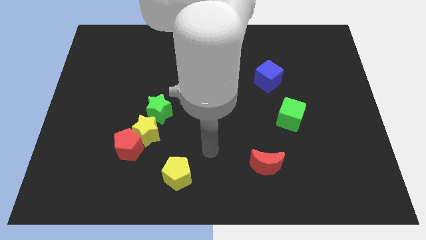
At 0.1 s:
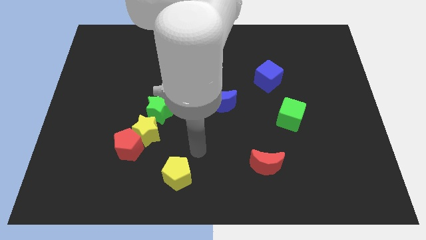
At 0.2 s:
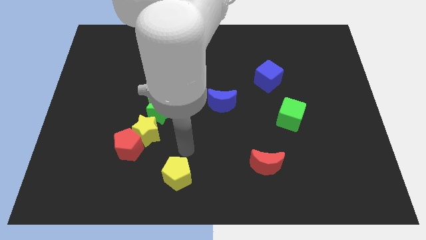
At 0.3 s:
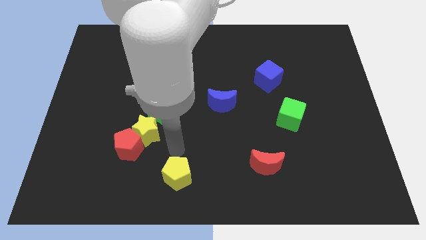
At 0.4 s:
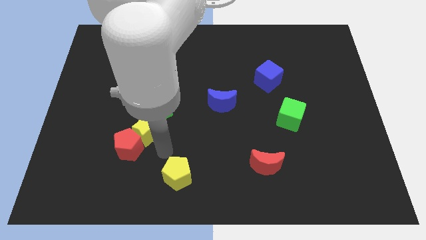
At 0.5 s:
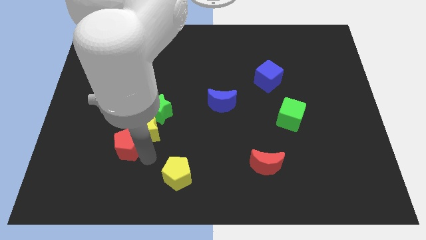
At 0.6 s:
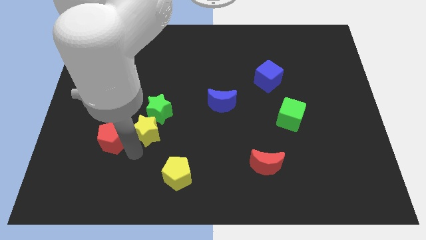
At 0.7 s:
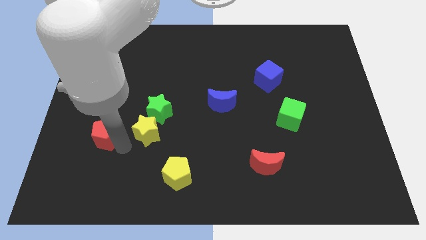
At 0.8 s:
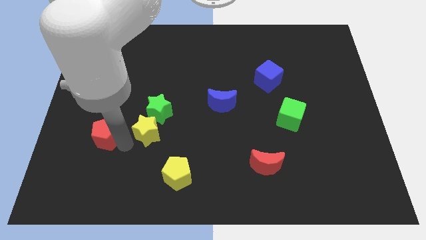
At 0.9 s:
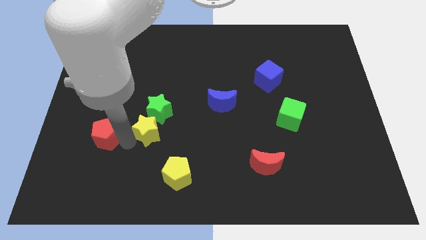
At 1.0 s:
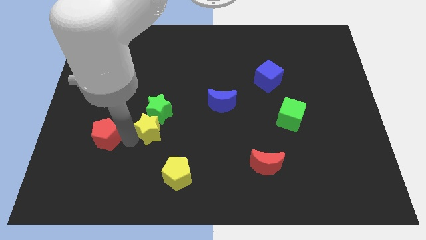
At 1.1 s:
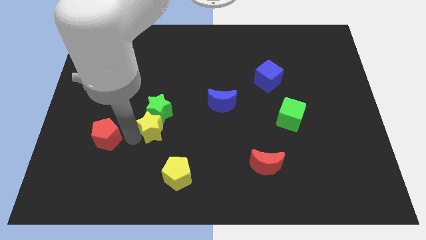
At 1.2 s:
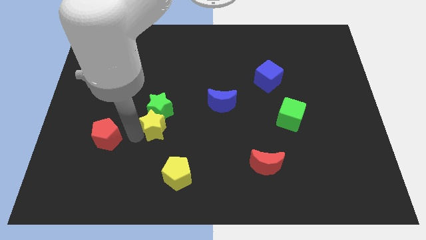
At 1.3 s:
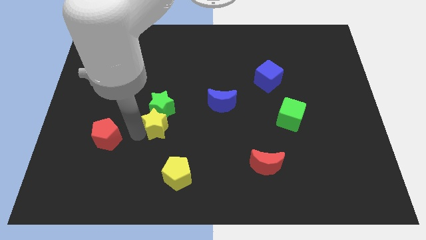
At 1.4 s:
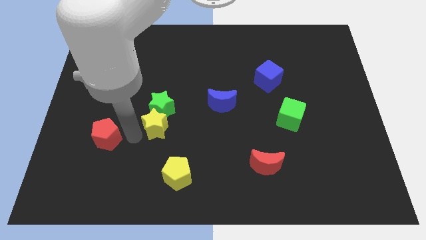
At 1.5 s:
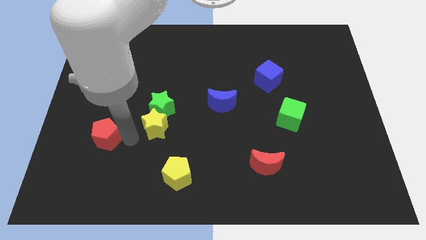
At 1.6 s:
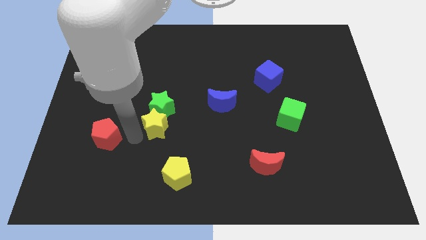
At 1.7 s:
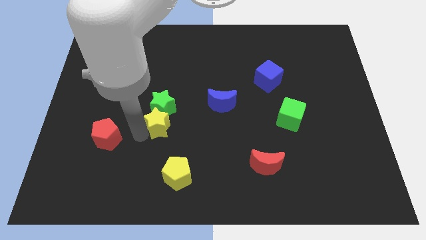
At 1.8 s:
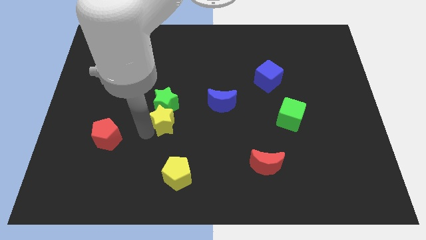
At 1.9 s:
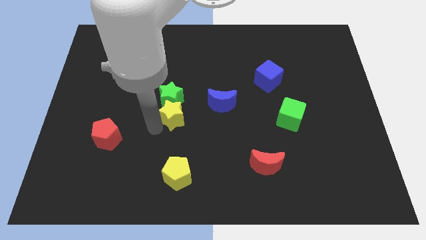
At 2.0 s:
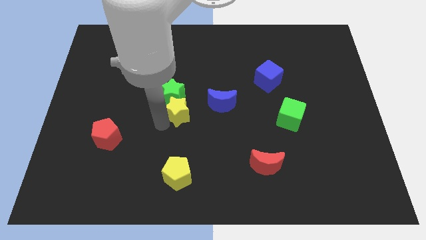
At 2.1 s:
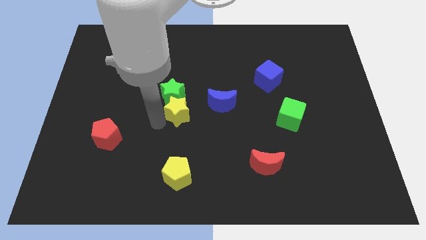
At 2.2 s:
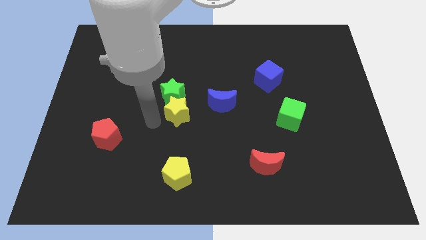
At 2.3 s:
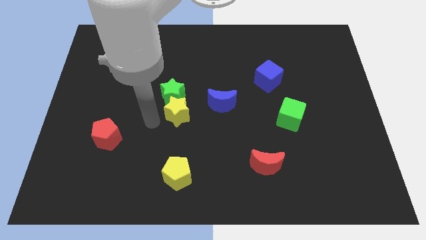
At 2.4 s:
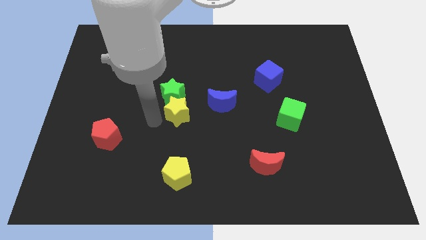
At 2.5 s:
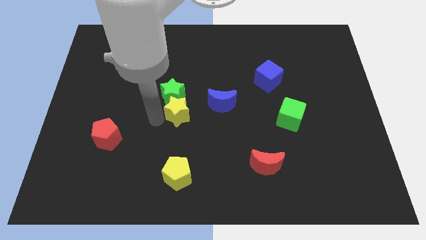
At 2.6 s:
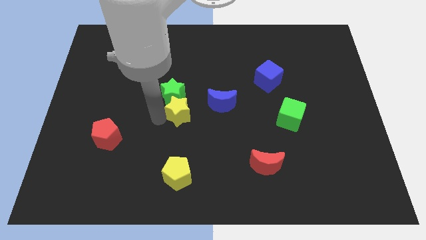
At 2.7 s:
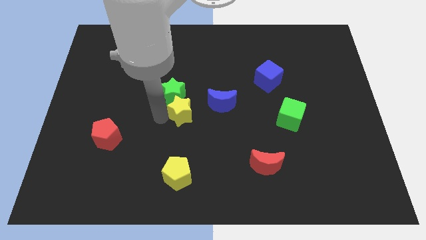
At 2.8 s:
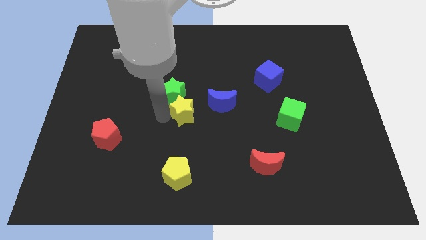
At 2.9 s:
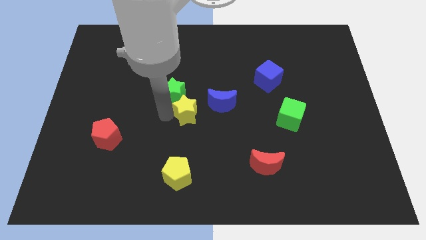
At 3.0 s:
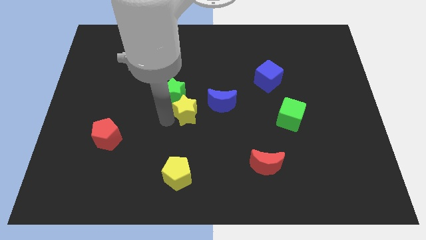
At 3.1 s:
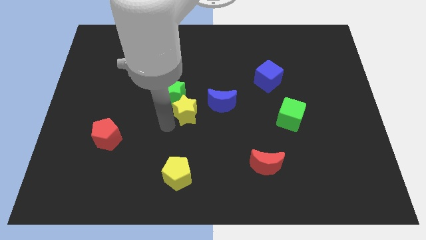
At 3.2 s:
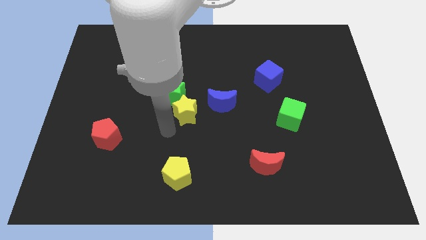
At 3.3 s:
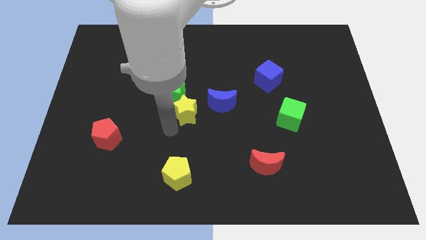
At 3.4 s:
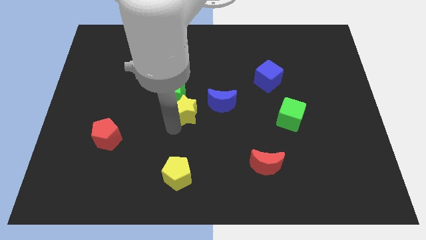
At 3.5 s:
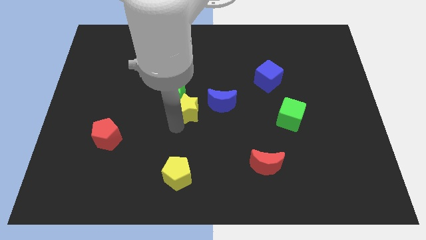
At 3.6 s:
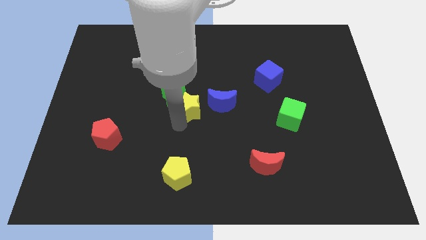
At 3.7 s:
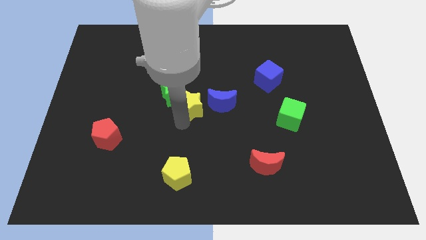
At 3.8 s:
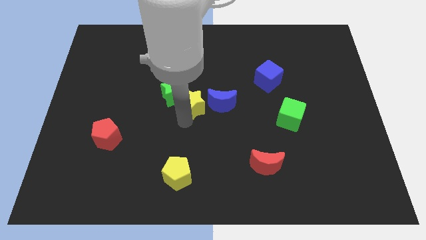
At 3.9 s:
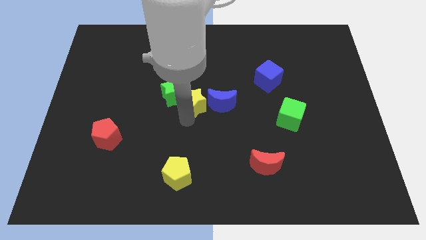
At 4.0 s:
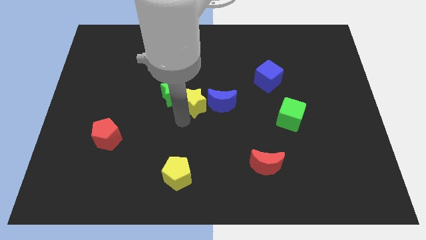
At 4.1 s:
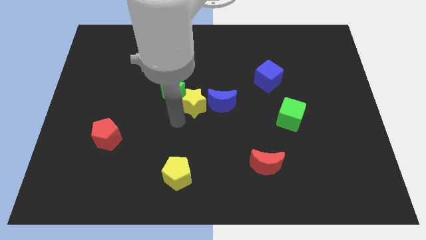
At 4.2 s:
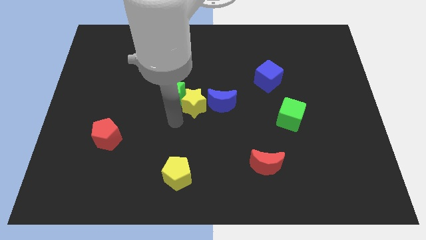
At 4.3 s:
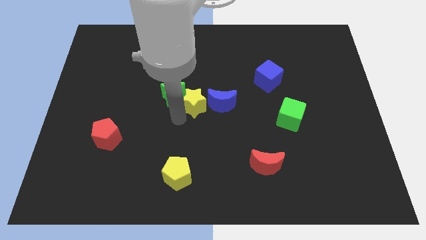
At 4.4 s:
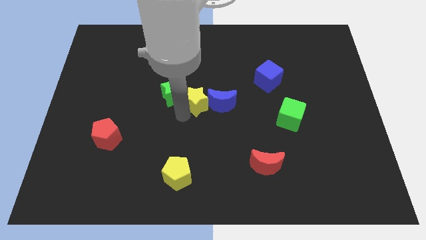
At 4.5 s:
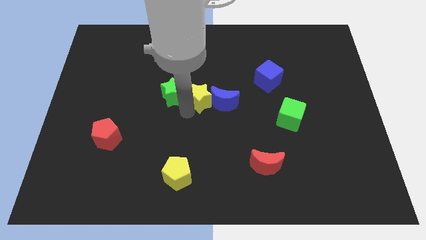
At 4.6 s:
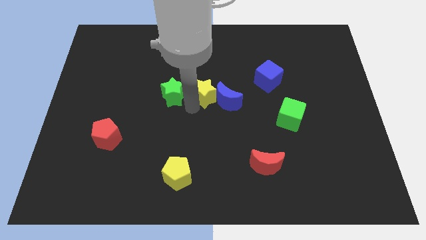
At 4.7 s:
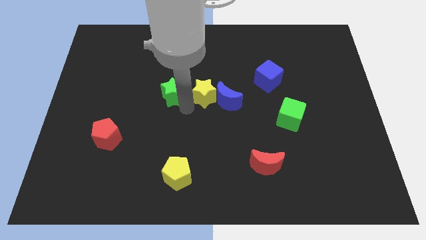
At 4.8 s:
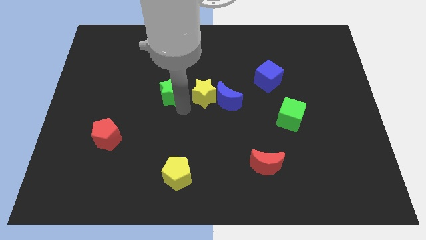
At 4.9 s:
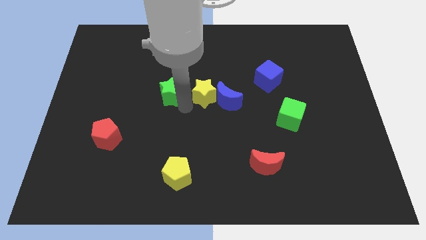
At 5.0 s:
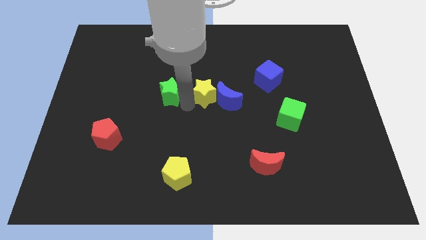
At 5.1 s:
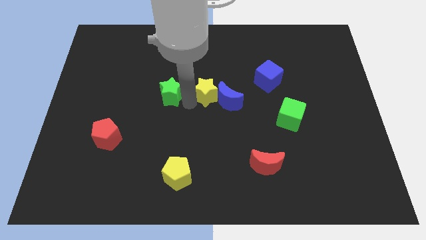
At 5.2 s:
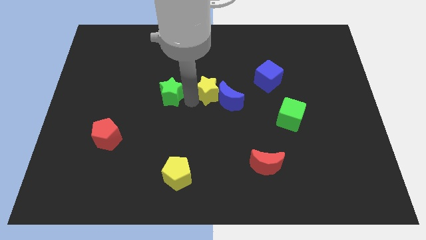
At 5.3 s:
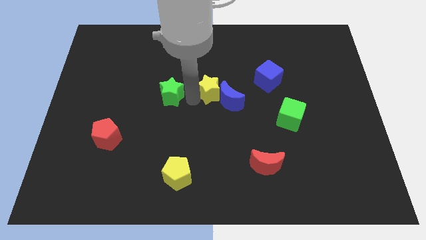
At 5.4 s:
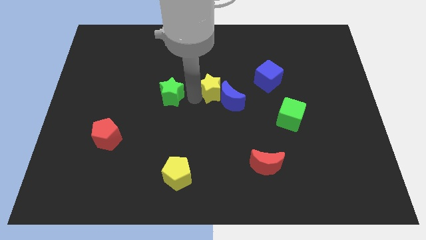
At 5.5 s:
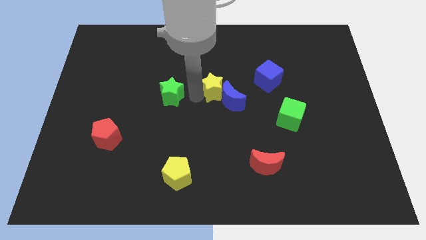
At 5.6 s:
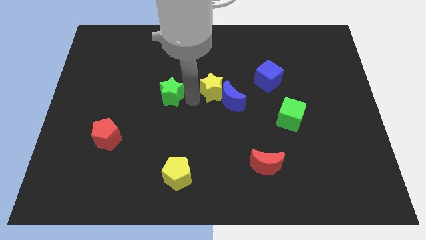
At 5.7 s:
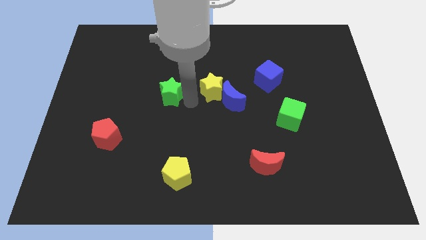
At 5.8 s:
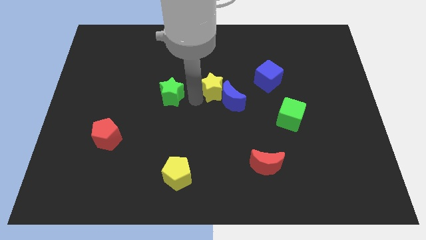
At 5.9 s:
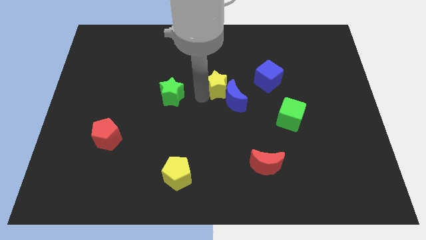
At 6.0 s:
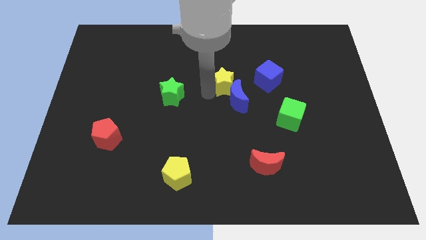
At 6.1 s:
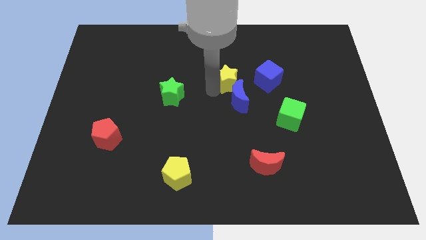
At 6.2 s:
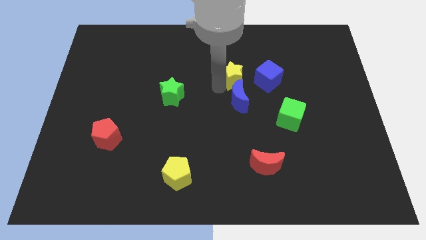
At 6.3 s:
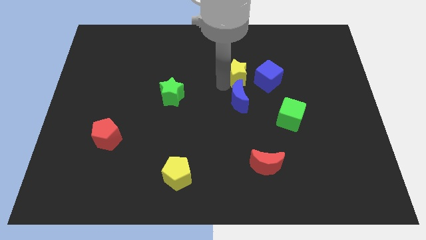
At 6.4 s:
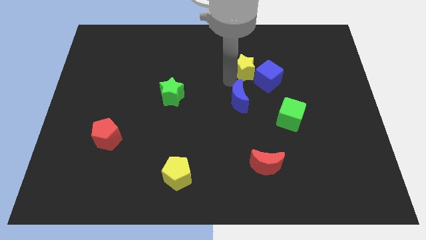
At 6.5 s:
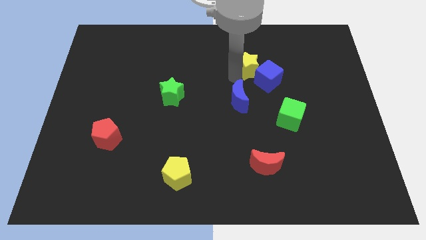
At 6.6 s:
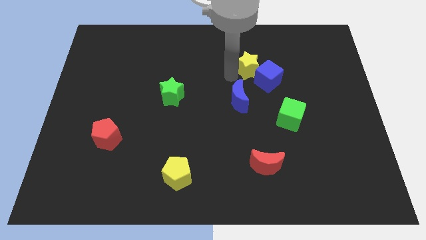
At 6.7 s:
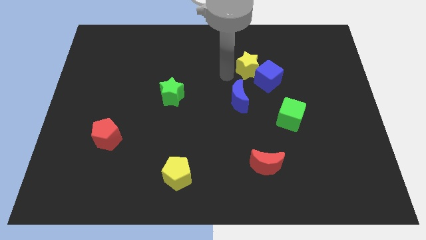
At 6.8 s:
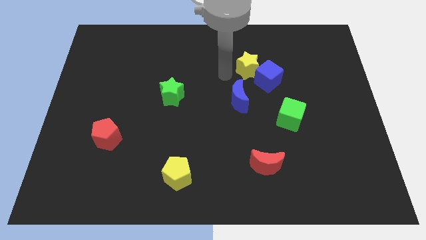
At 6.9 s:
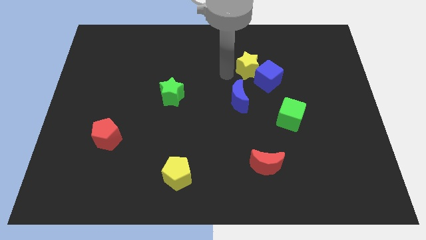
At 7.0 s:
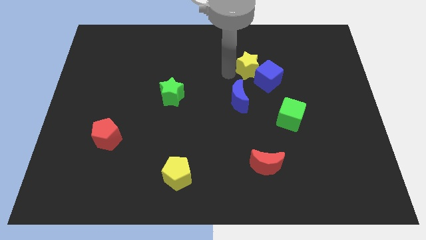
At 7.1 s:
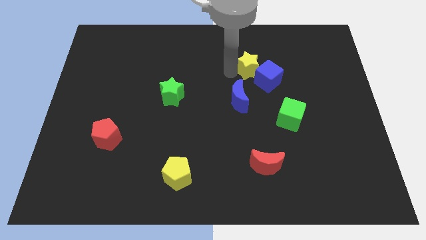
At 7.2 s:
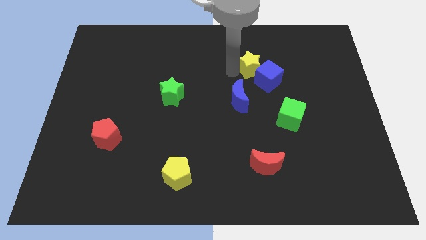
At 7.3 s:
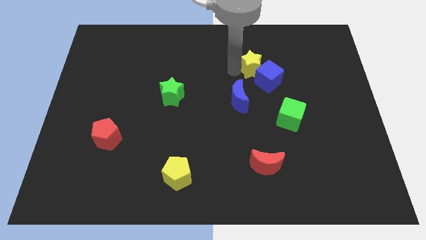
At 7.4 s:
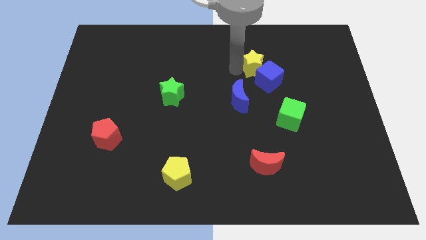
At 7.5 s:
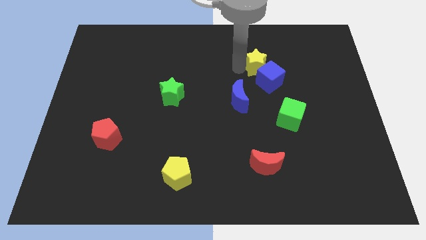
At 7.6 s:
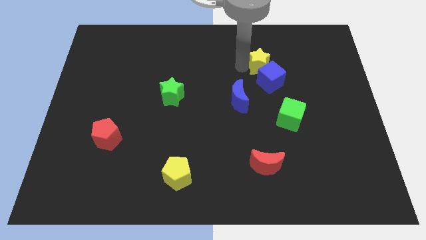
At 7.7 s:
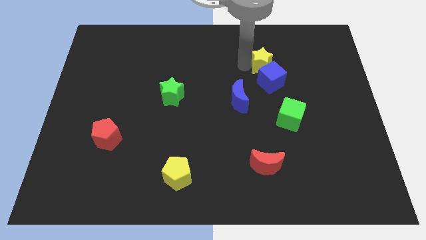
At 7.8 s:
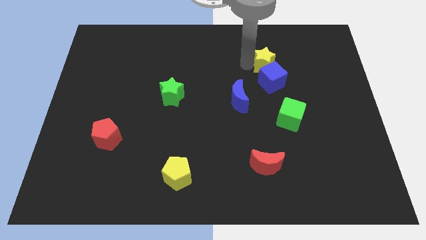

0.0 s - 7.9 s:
put the yellow star to the top right of the blue cube
